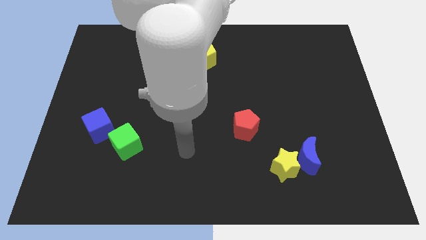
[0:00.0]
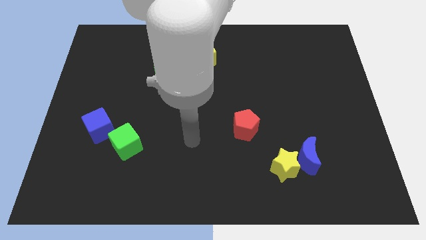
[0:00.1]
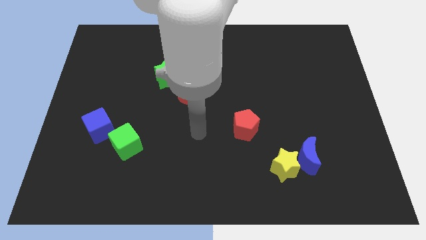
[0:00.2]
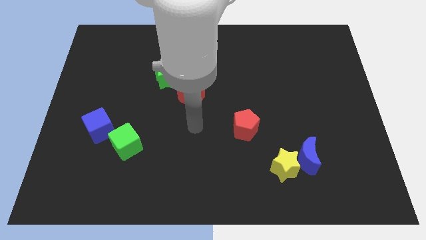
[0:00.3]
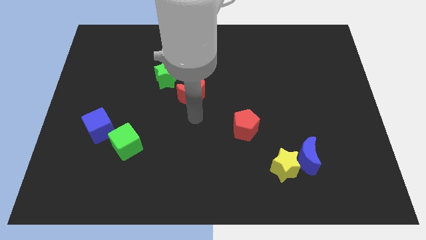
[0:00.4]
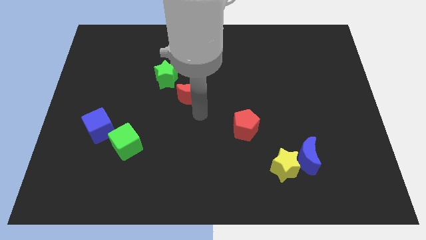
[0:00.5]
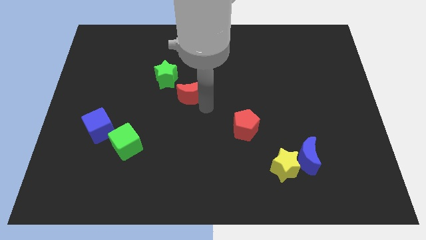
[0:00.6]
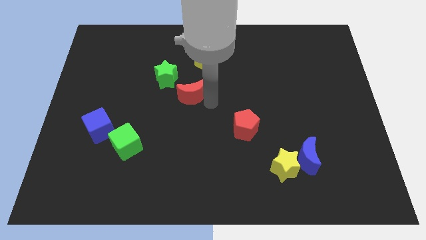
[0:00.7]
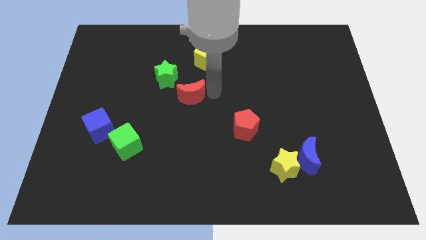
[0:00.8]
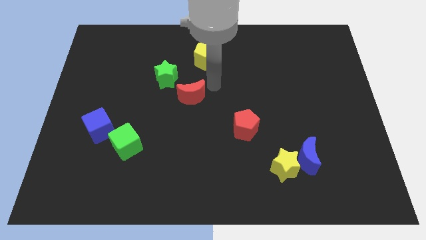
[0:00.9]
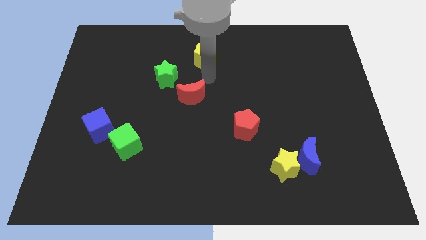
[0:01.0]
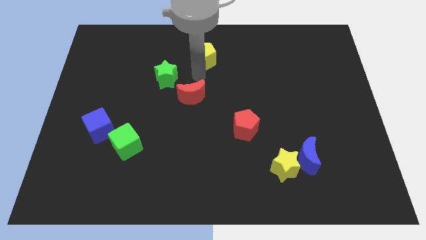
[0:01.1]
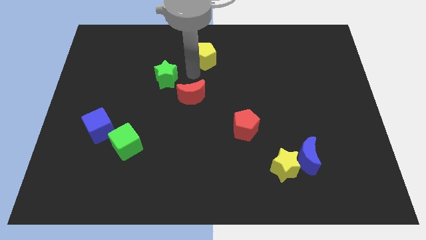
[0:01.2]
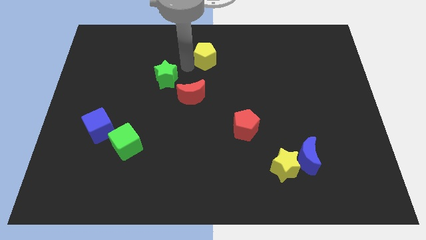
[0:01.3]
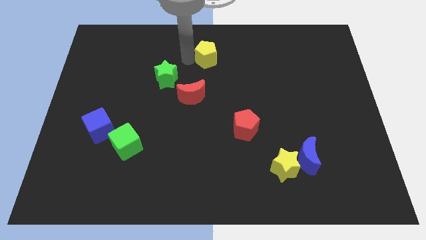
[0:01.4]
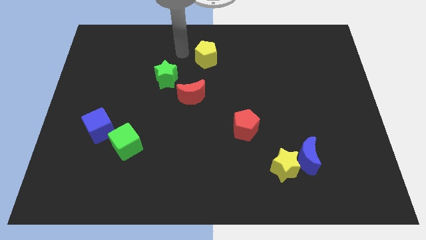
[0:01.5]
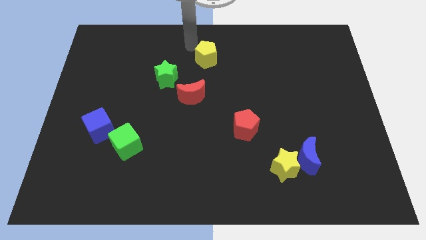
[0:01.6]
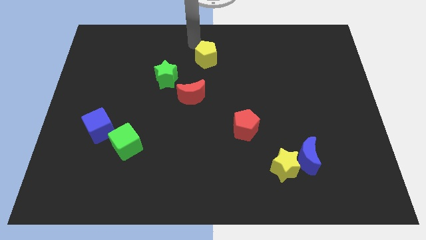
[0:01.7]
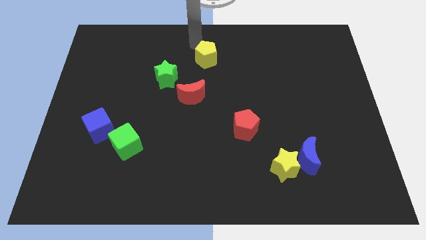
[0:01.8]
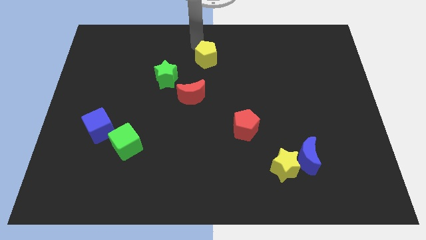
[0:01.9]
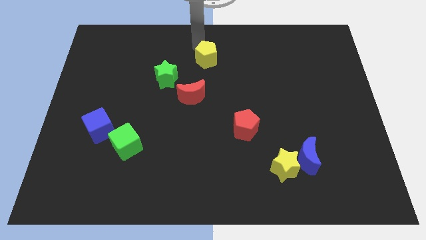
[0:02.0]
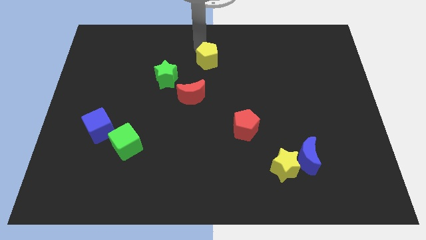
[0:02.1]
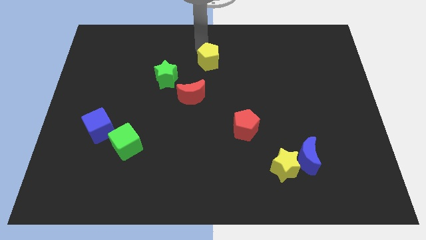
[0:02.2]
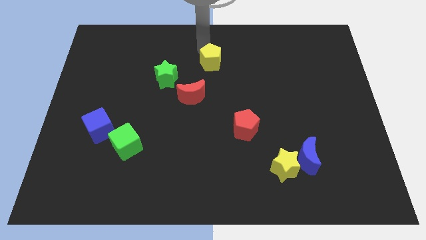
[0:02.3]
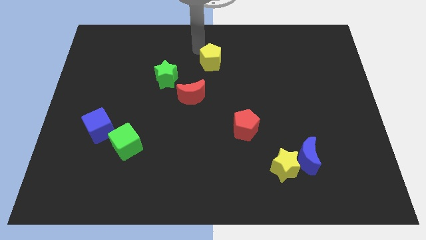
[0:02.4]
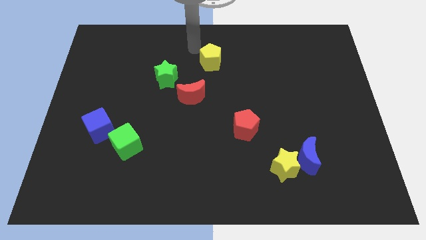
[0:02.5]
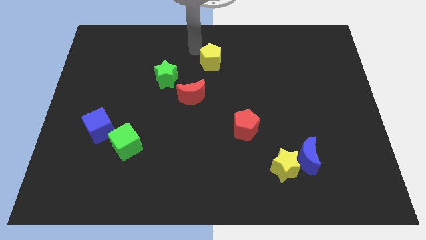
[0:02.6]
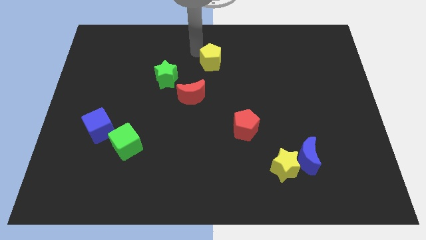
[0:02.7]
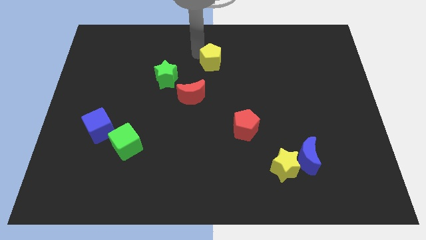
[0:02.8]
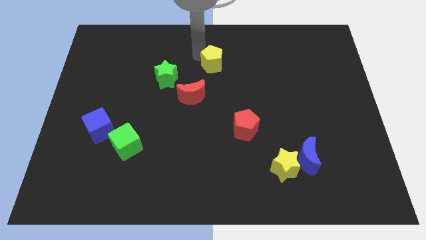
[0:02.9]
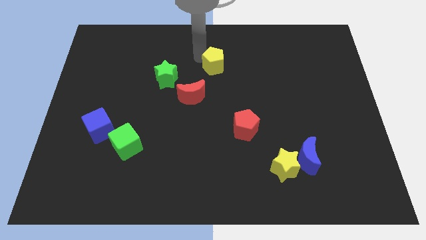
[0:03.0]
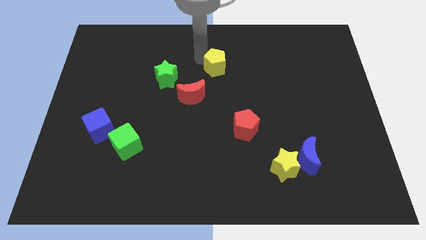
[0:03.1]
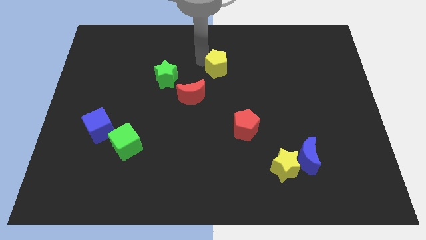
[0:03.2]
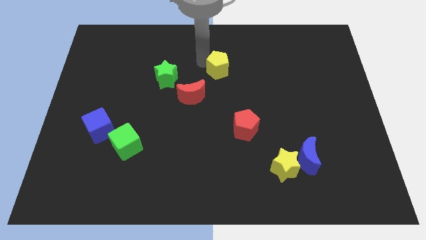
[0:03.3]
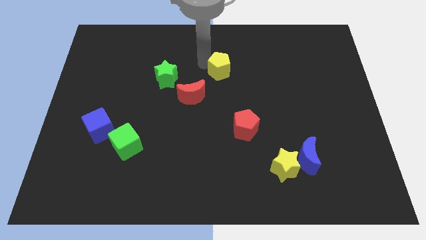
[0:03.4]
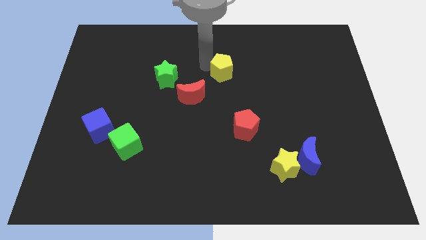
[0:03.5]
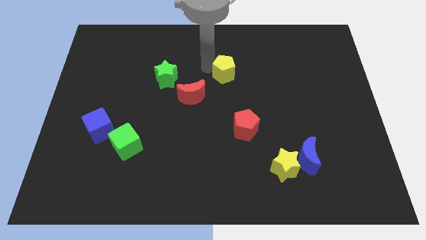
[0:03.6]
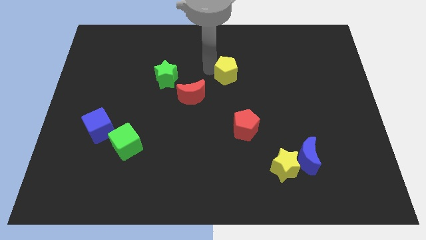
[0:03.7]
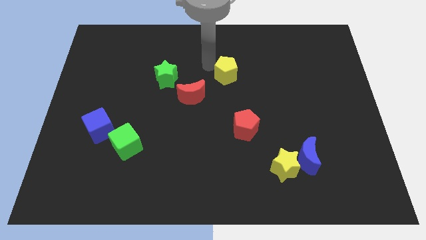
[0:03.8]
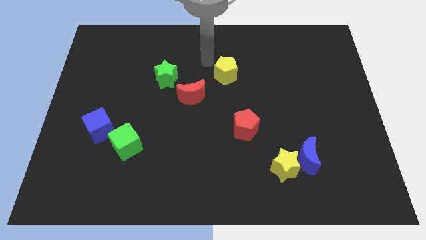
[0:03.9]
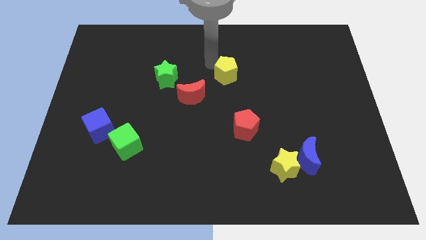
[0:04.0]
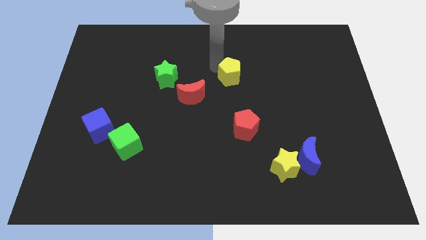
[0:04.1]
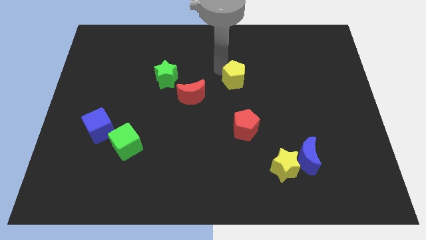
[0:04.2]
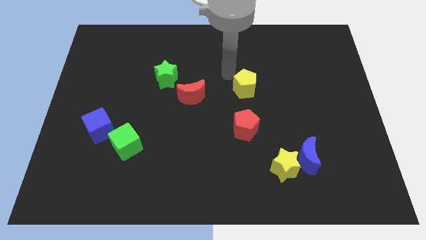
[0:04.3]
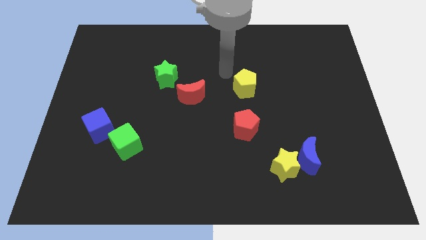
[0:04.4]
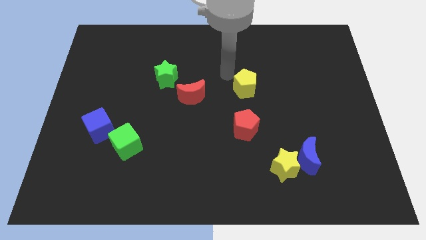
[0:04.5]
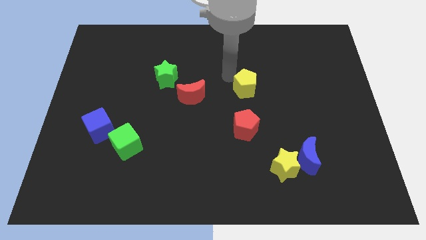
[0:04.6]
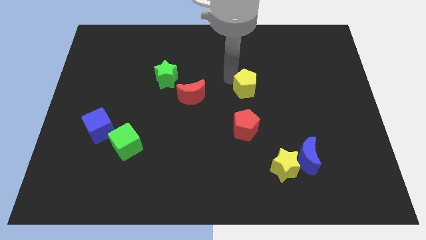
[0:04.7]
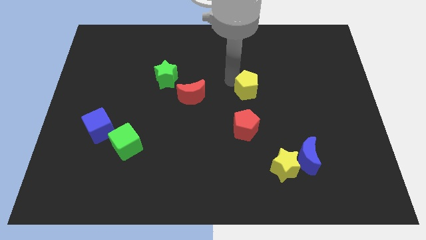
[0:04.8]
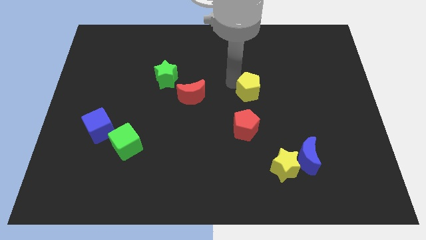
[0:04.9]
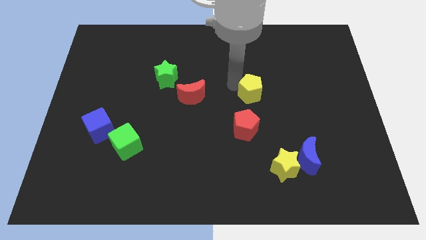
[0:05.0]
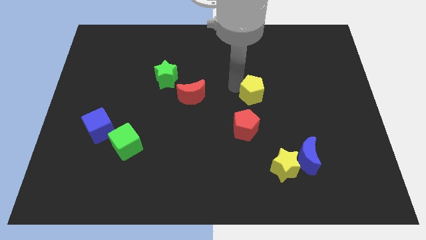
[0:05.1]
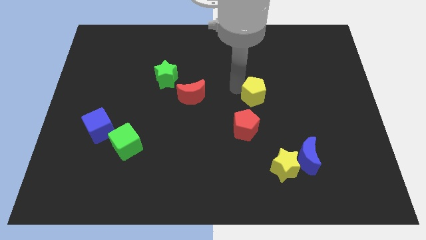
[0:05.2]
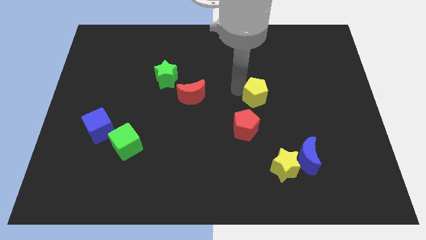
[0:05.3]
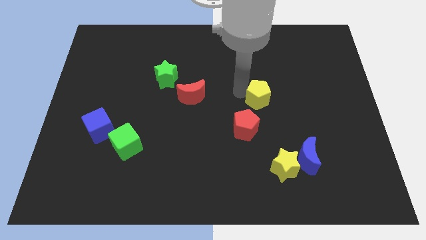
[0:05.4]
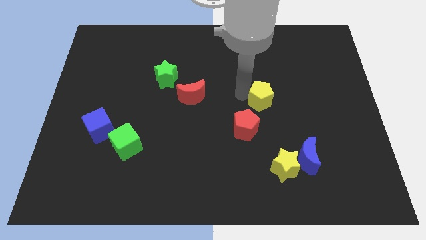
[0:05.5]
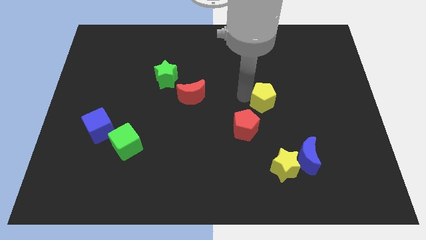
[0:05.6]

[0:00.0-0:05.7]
push the yellow pentagon downwards and to the right

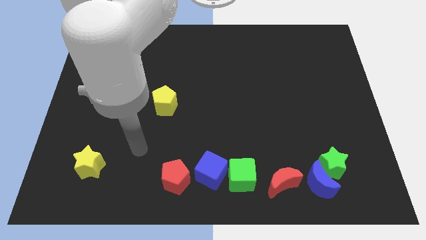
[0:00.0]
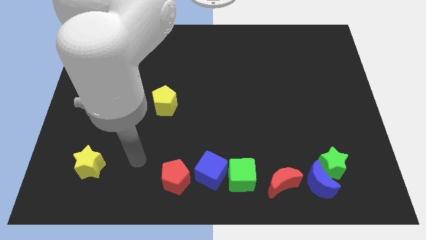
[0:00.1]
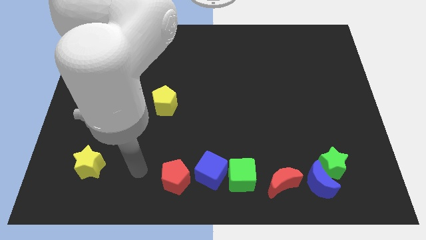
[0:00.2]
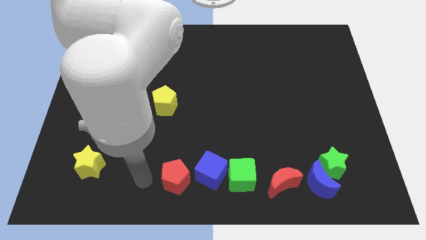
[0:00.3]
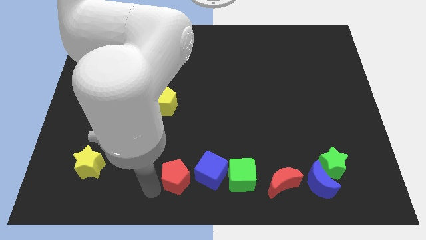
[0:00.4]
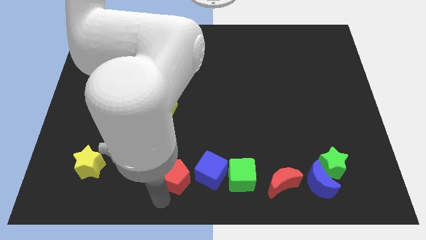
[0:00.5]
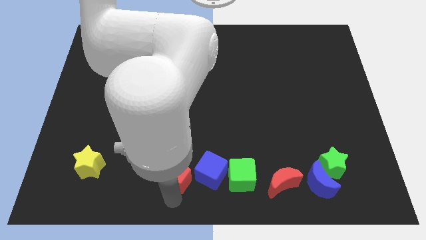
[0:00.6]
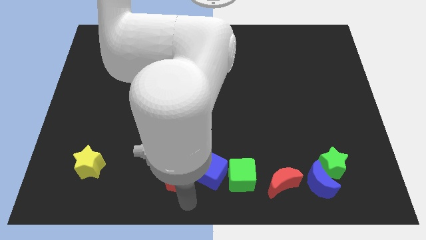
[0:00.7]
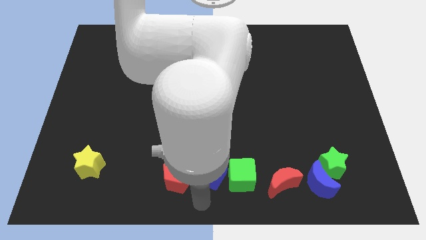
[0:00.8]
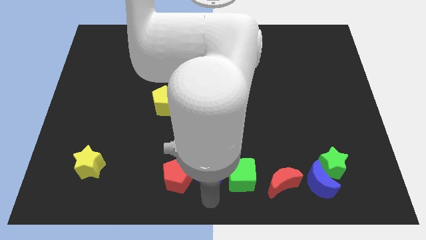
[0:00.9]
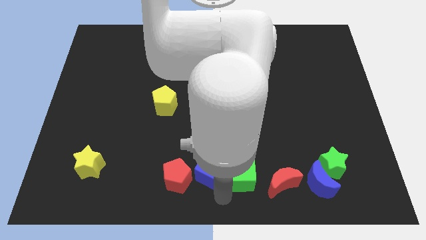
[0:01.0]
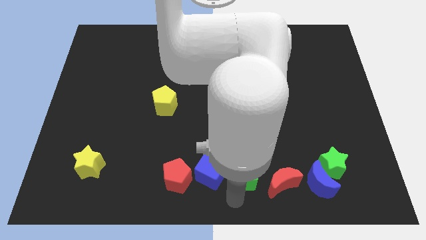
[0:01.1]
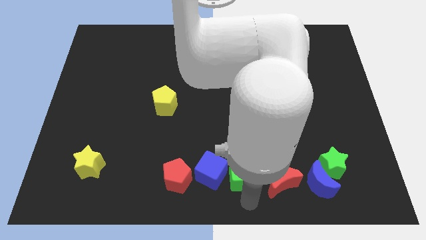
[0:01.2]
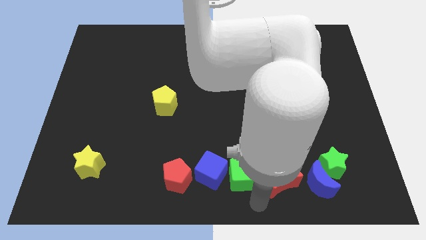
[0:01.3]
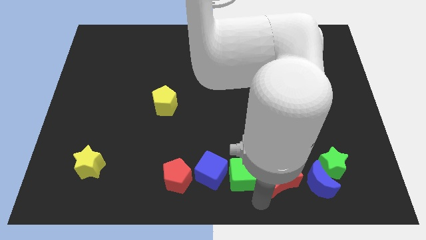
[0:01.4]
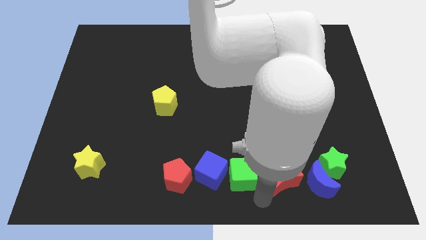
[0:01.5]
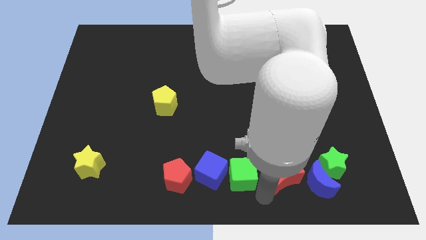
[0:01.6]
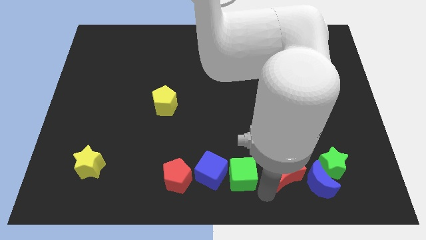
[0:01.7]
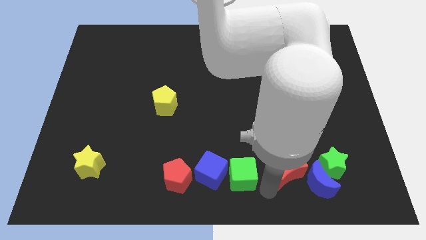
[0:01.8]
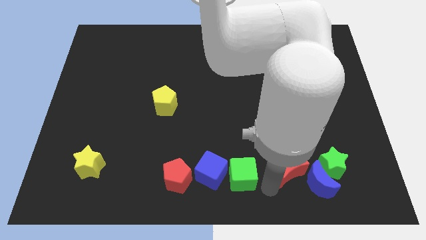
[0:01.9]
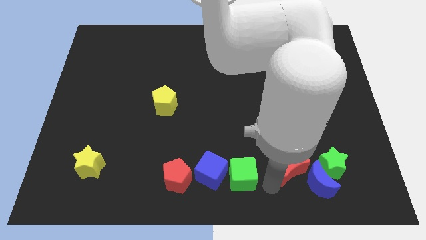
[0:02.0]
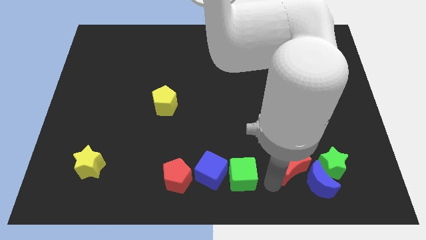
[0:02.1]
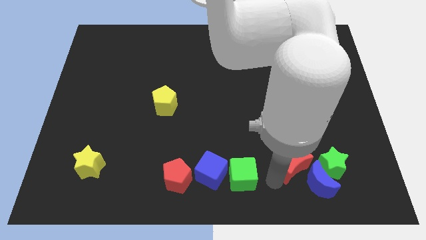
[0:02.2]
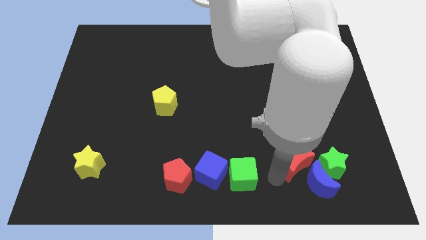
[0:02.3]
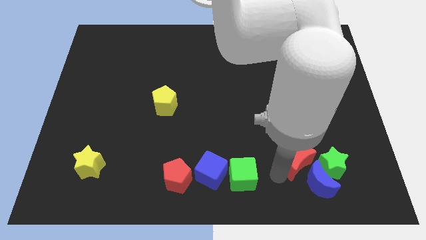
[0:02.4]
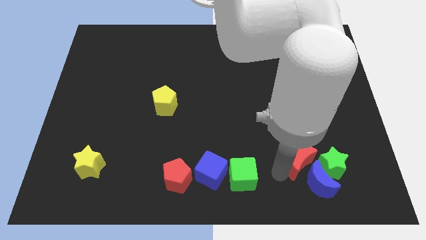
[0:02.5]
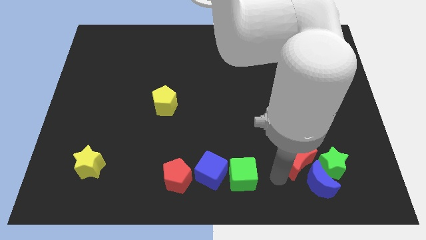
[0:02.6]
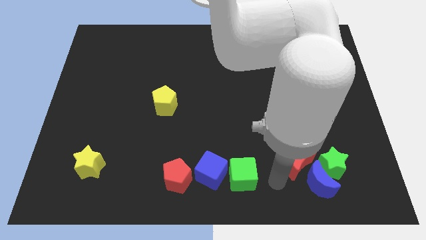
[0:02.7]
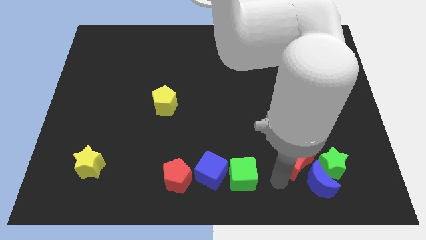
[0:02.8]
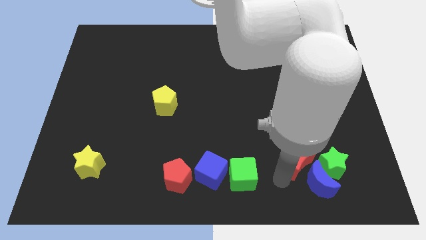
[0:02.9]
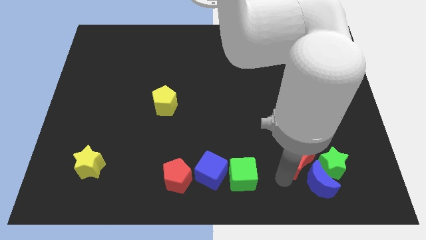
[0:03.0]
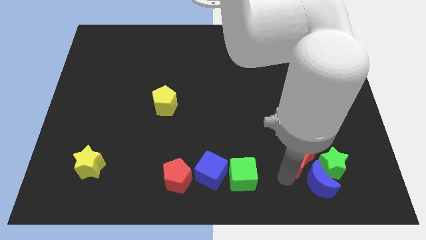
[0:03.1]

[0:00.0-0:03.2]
slide the red moon a little diagonally up and right
